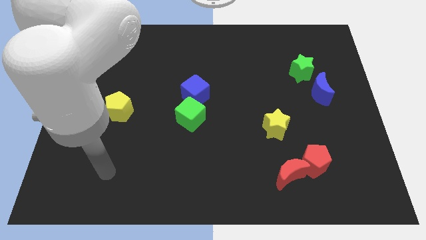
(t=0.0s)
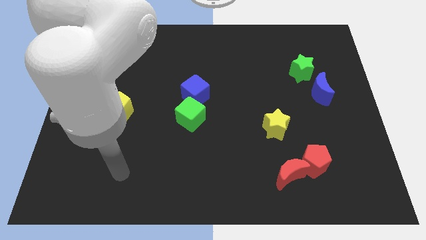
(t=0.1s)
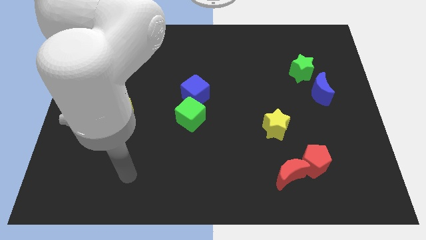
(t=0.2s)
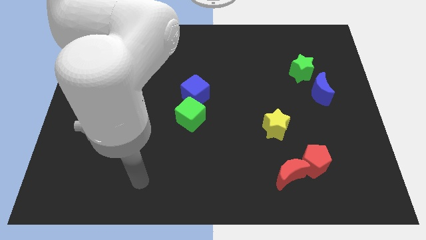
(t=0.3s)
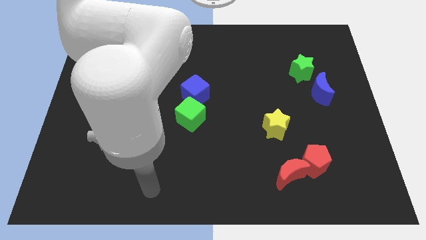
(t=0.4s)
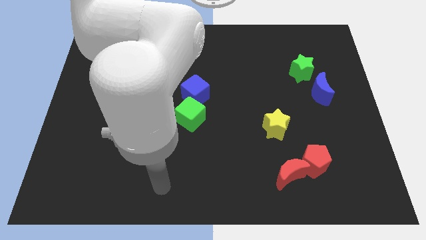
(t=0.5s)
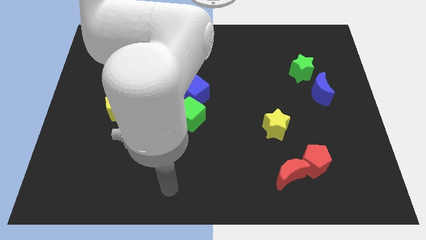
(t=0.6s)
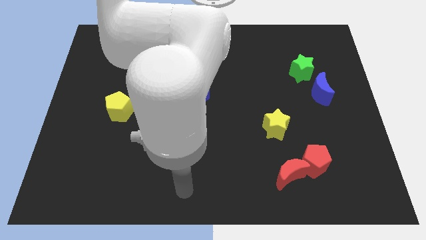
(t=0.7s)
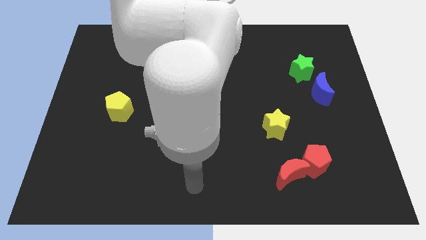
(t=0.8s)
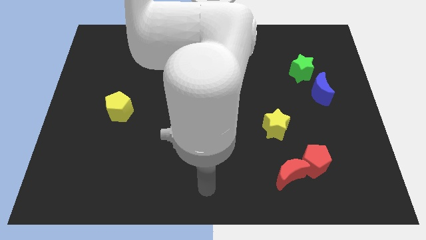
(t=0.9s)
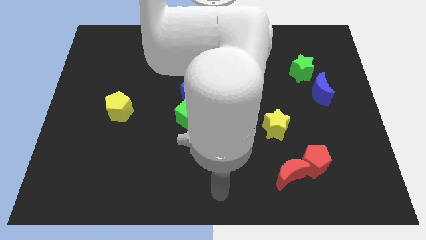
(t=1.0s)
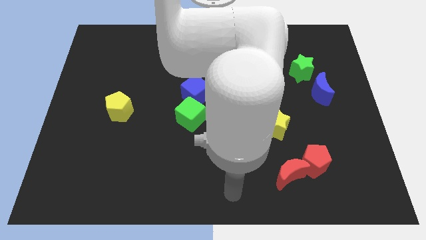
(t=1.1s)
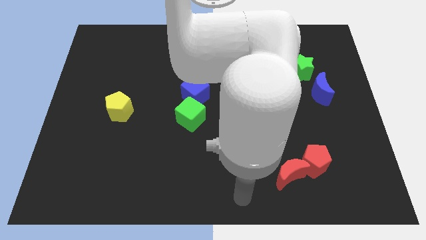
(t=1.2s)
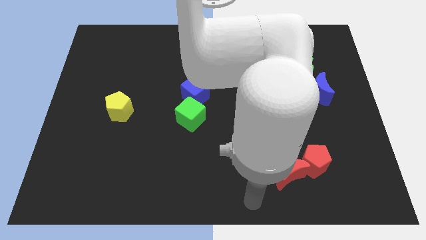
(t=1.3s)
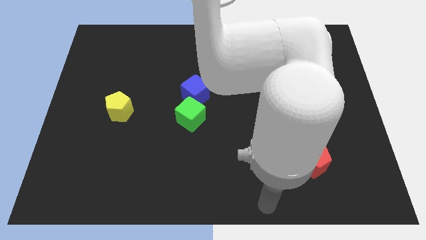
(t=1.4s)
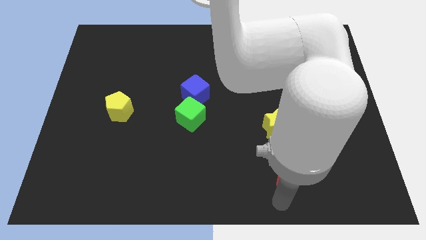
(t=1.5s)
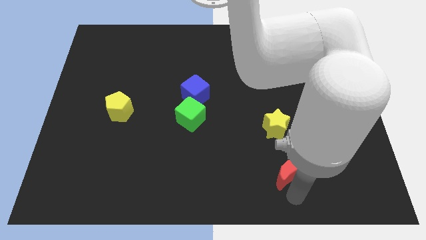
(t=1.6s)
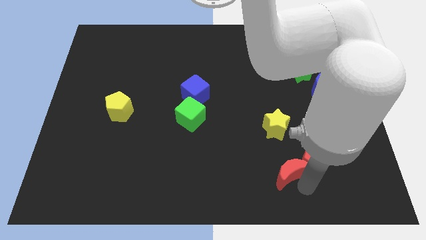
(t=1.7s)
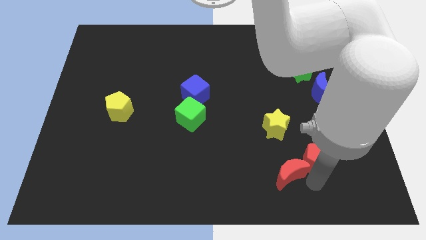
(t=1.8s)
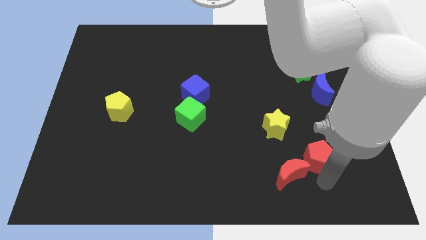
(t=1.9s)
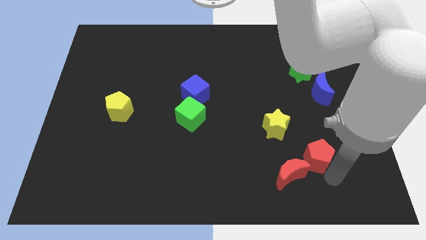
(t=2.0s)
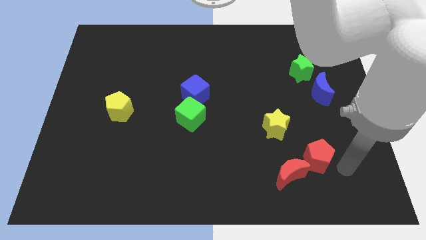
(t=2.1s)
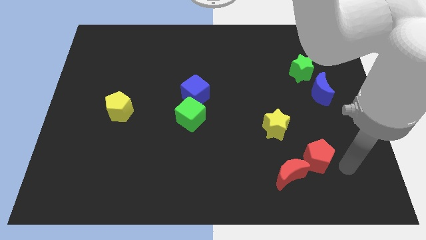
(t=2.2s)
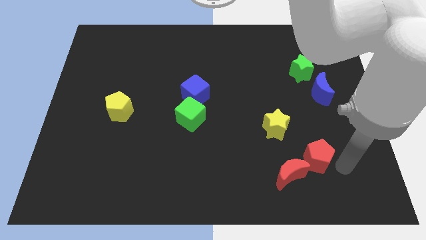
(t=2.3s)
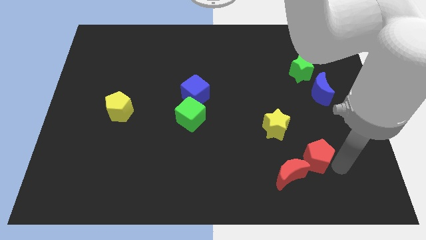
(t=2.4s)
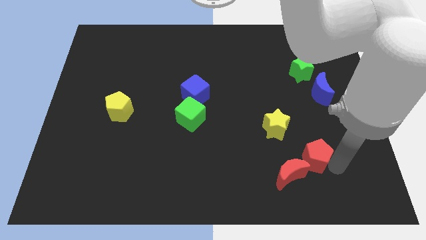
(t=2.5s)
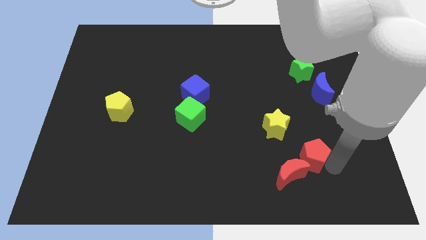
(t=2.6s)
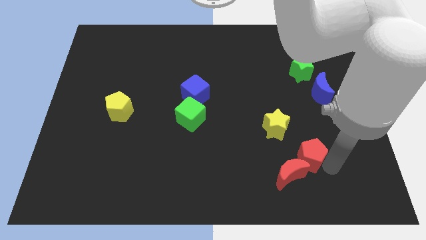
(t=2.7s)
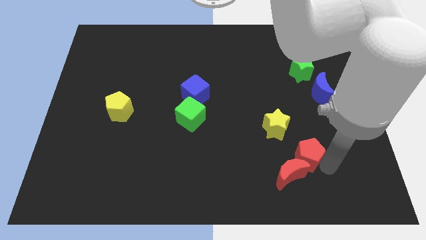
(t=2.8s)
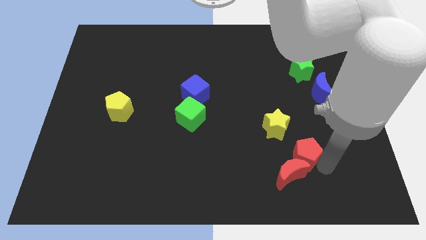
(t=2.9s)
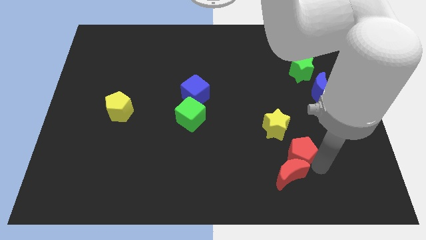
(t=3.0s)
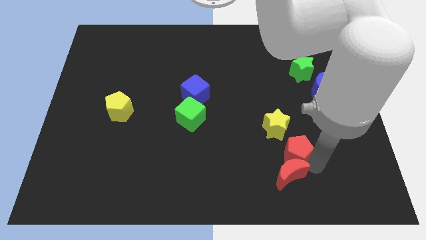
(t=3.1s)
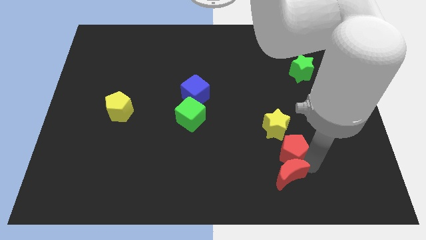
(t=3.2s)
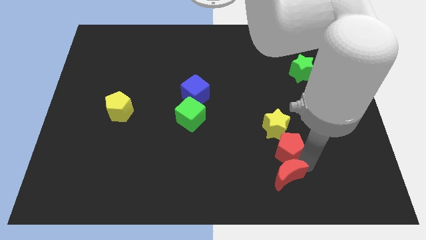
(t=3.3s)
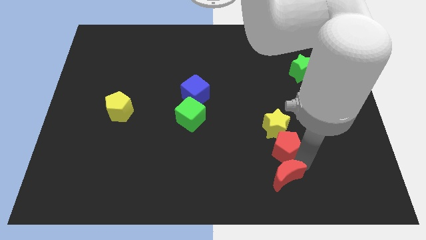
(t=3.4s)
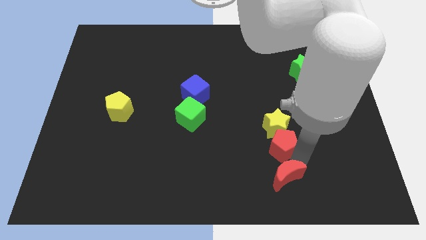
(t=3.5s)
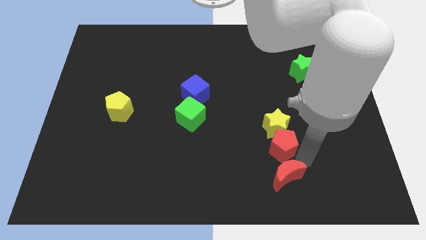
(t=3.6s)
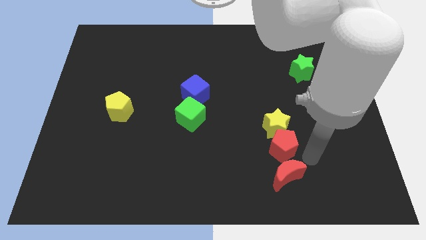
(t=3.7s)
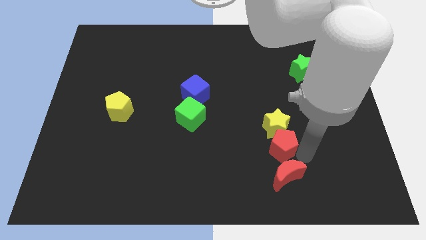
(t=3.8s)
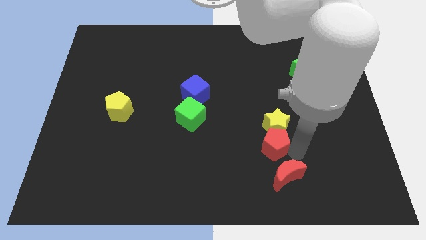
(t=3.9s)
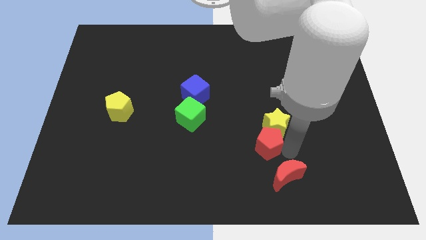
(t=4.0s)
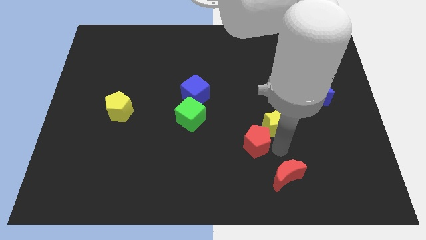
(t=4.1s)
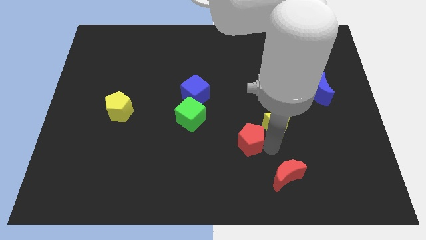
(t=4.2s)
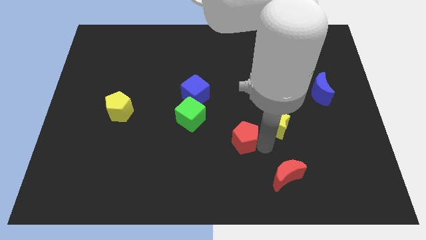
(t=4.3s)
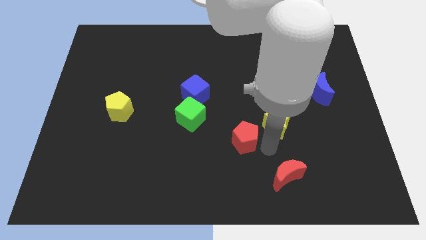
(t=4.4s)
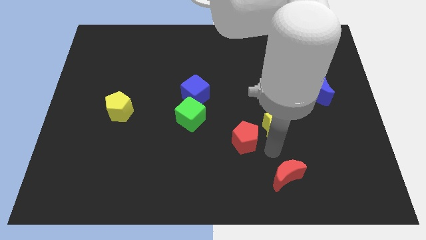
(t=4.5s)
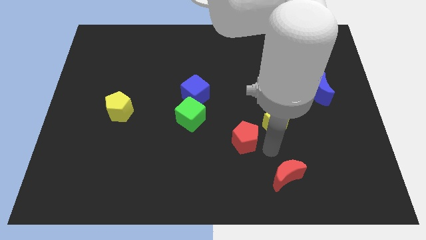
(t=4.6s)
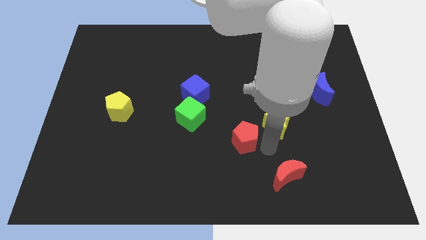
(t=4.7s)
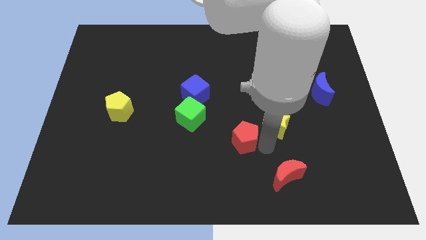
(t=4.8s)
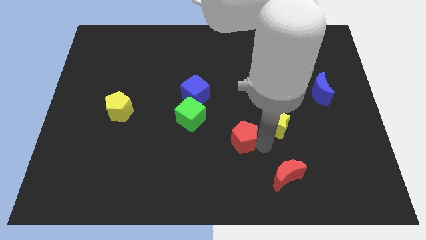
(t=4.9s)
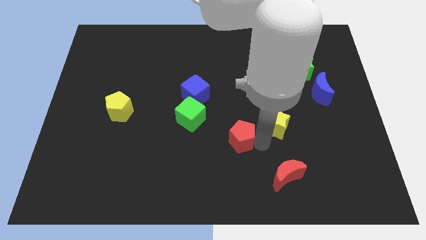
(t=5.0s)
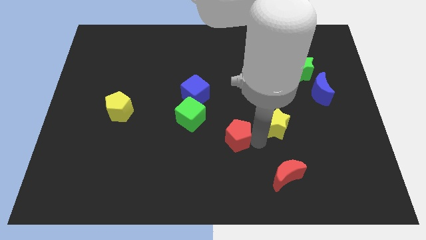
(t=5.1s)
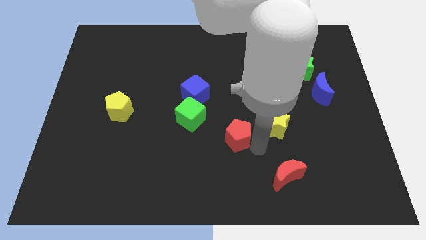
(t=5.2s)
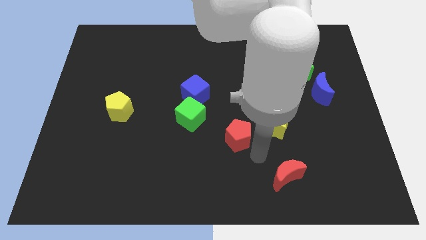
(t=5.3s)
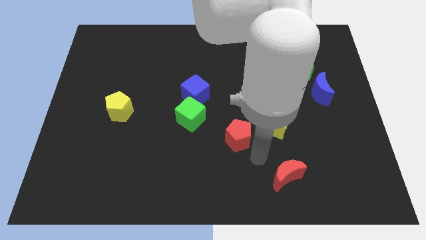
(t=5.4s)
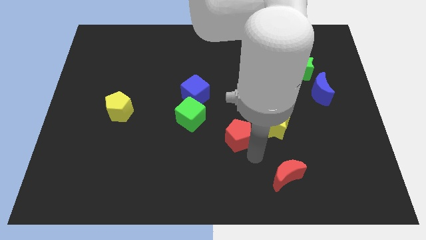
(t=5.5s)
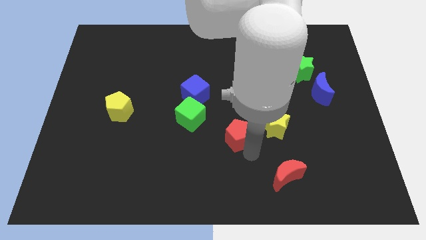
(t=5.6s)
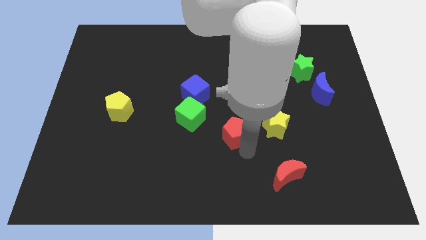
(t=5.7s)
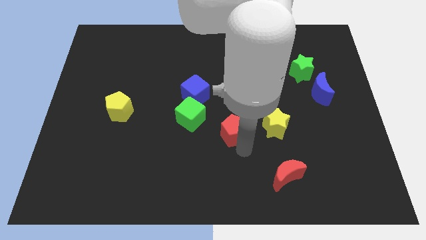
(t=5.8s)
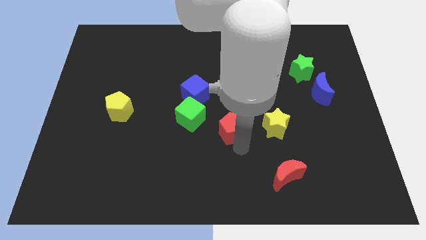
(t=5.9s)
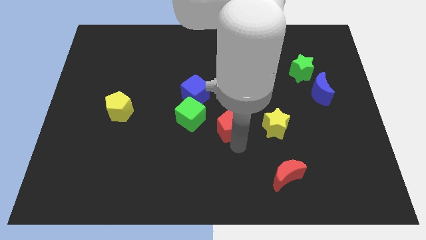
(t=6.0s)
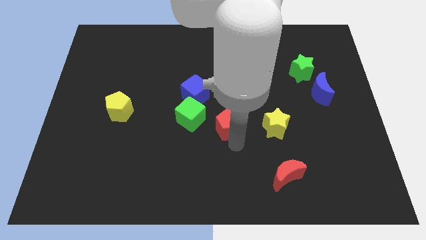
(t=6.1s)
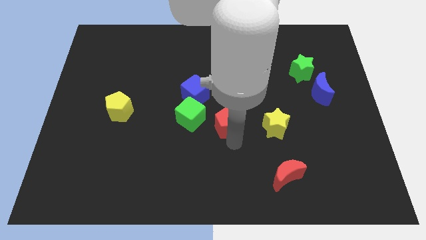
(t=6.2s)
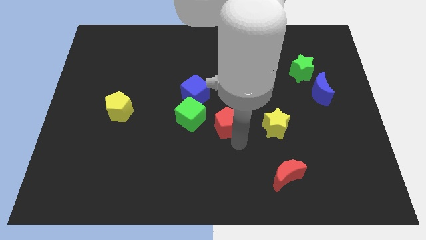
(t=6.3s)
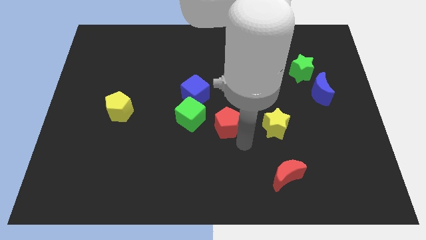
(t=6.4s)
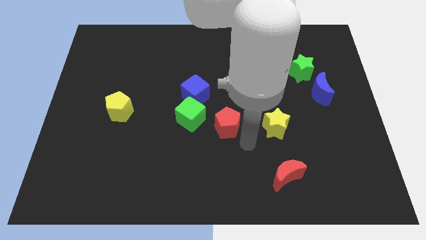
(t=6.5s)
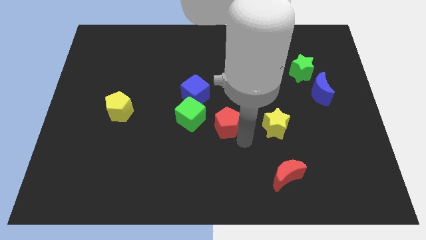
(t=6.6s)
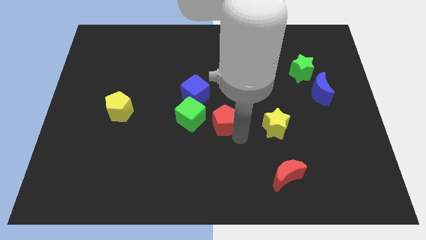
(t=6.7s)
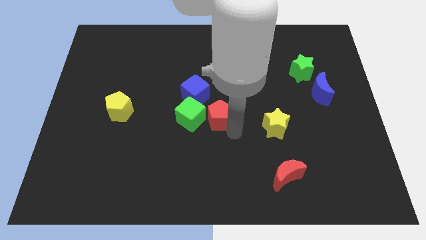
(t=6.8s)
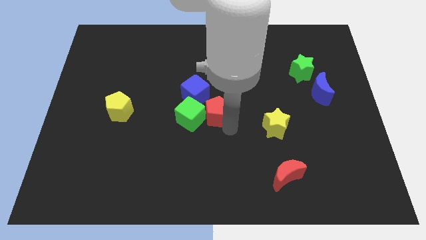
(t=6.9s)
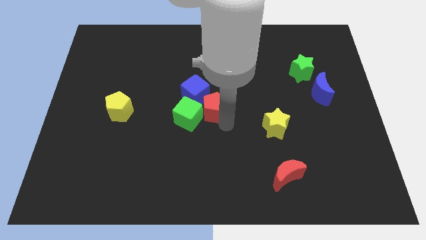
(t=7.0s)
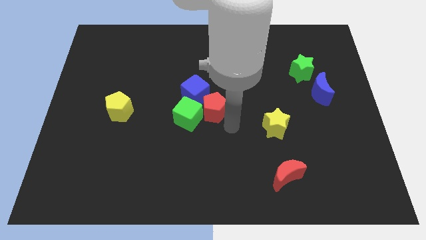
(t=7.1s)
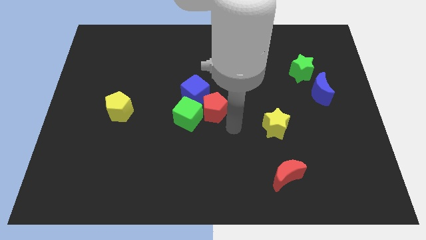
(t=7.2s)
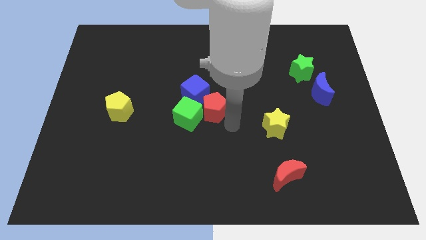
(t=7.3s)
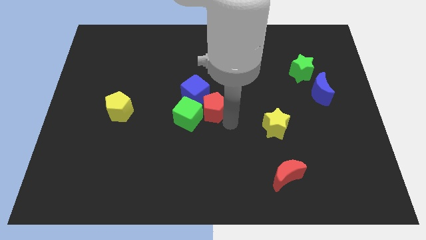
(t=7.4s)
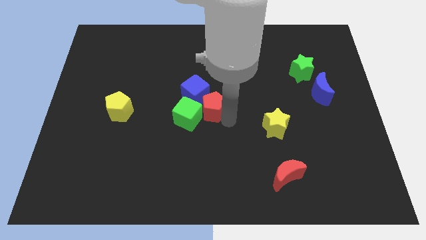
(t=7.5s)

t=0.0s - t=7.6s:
move the red pentagon to the blue cube
